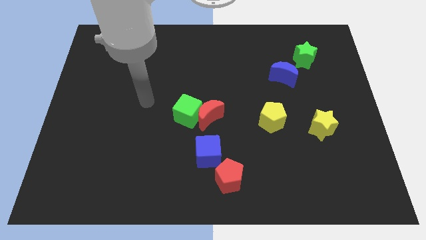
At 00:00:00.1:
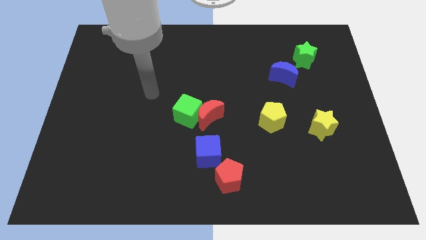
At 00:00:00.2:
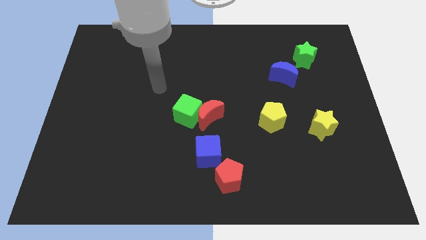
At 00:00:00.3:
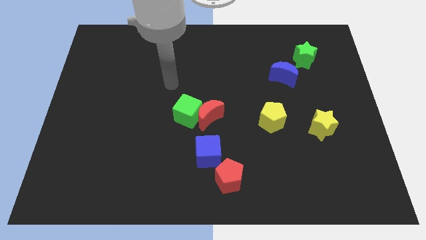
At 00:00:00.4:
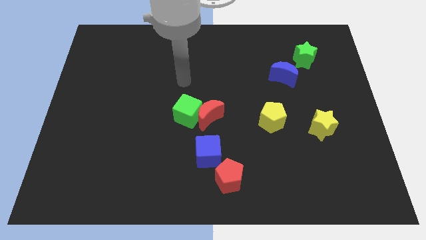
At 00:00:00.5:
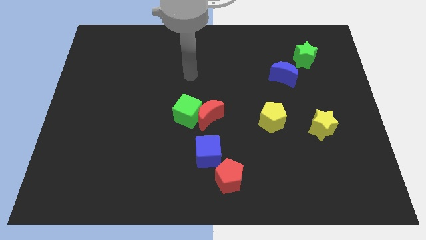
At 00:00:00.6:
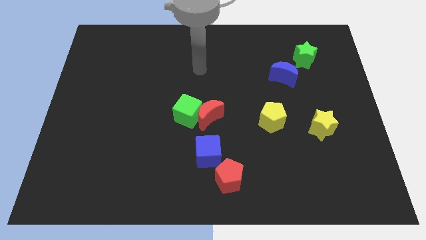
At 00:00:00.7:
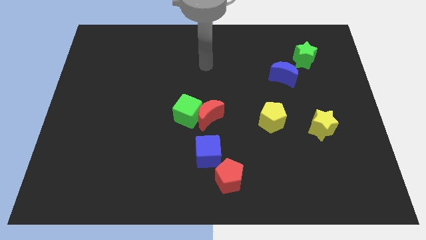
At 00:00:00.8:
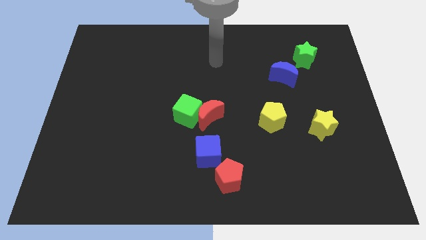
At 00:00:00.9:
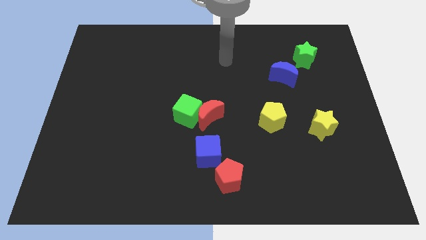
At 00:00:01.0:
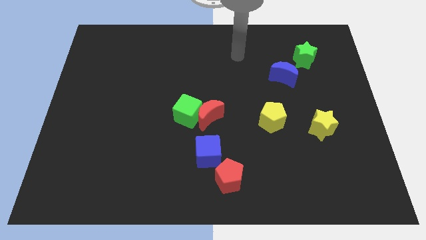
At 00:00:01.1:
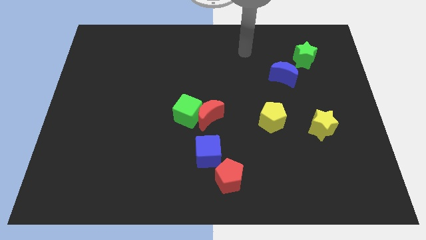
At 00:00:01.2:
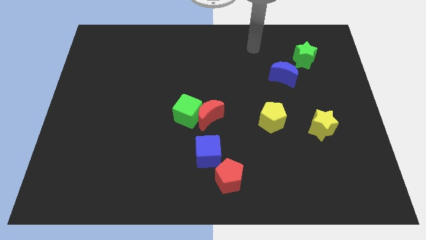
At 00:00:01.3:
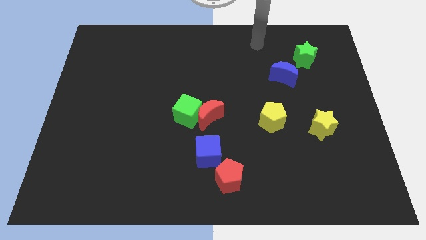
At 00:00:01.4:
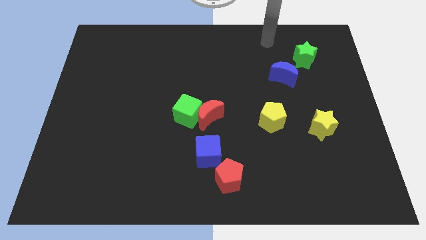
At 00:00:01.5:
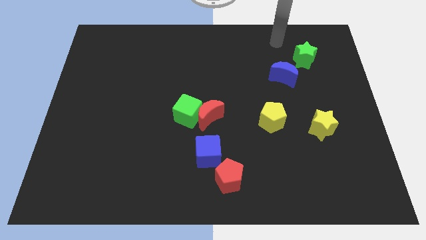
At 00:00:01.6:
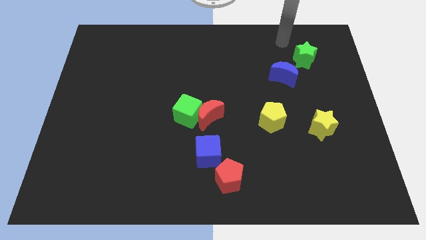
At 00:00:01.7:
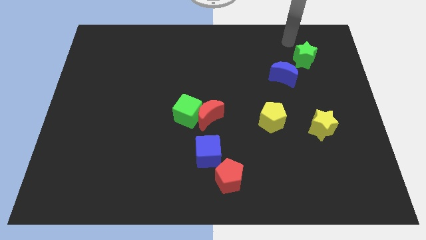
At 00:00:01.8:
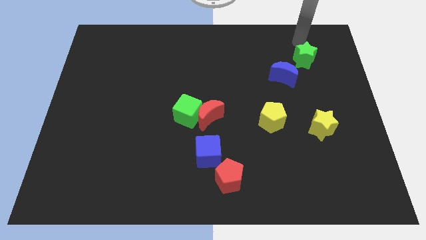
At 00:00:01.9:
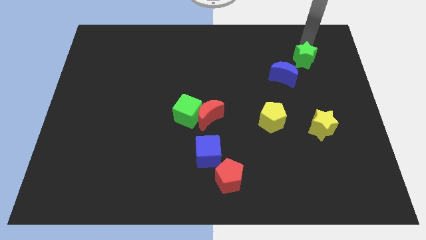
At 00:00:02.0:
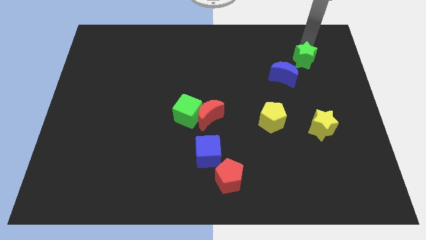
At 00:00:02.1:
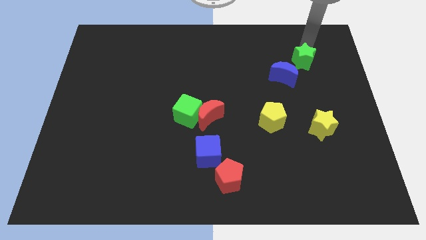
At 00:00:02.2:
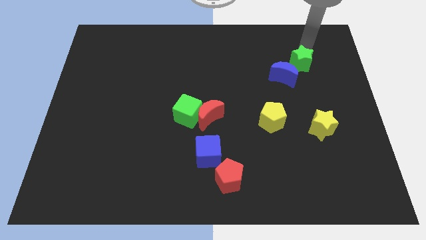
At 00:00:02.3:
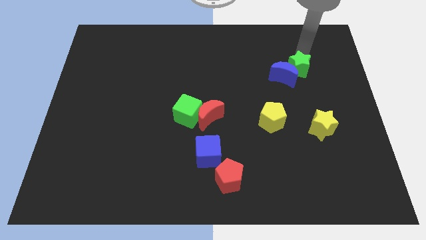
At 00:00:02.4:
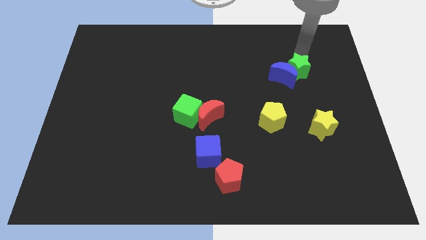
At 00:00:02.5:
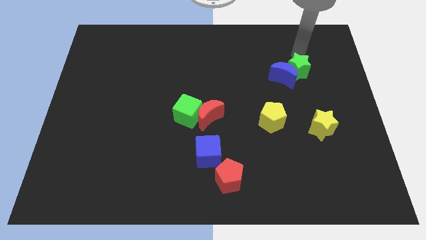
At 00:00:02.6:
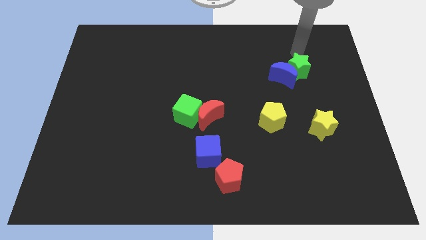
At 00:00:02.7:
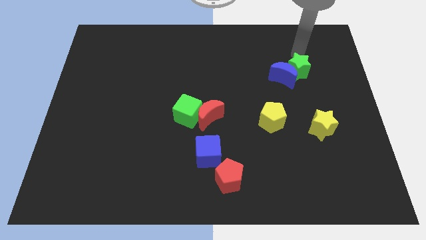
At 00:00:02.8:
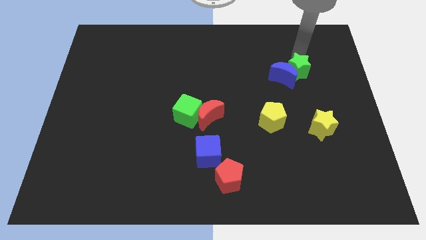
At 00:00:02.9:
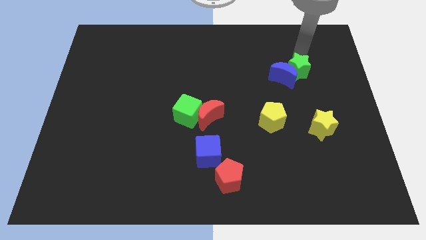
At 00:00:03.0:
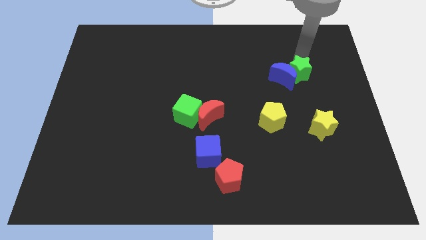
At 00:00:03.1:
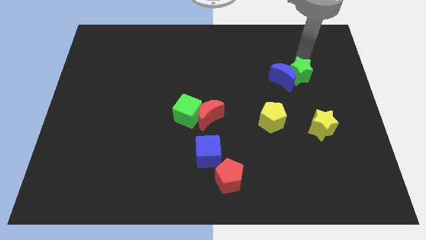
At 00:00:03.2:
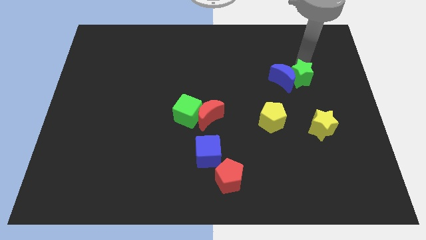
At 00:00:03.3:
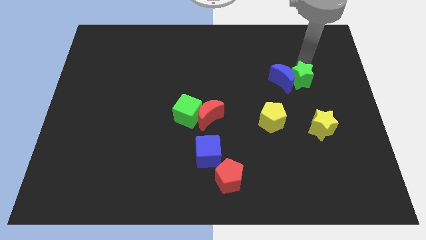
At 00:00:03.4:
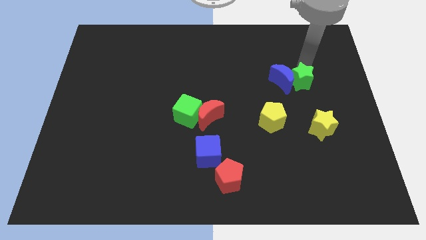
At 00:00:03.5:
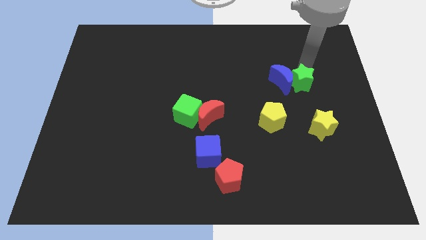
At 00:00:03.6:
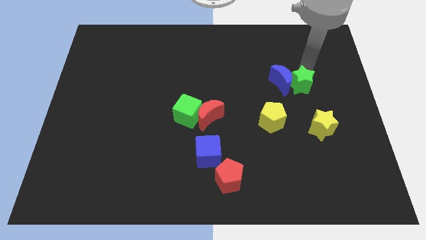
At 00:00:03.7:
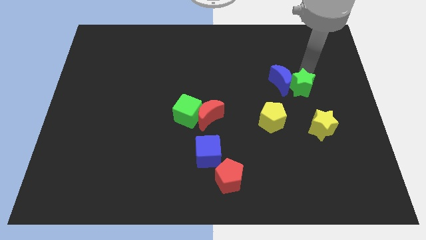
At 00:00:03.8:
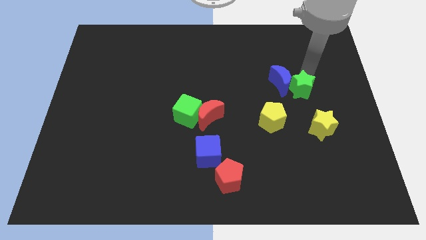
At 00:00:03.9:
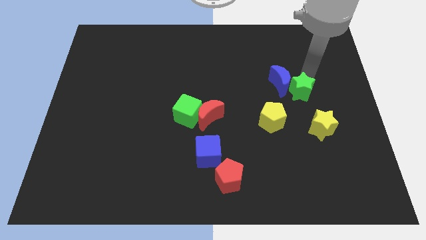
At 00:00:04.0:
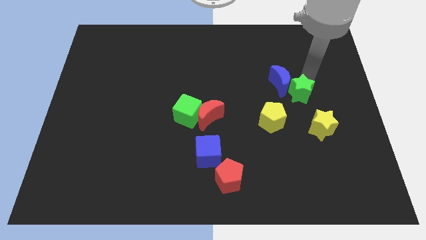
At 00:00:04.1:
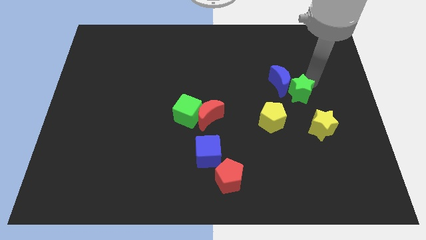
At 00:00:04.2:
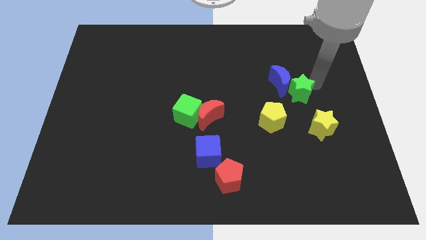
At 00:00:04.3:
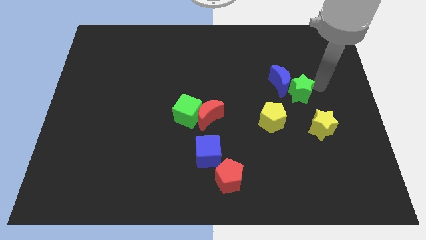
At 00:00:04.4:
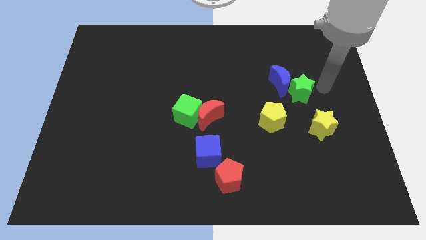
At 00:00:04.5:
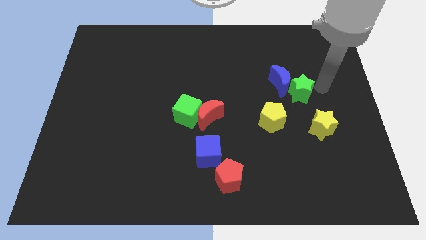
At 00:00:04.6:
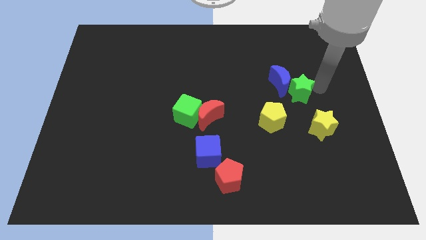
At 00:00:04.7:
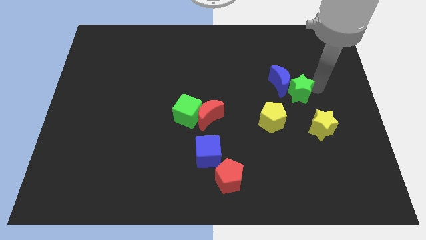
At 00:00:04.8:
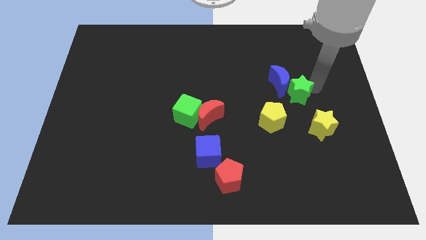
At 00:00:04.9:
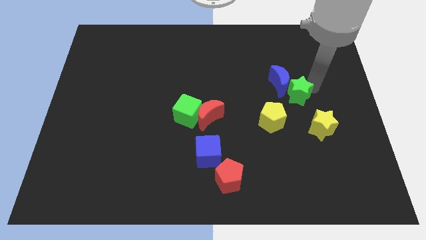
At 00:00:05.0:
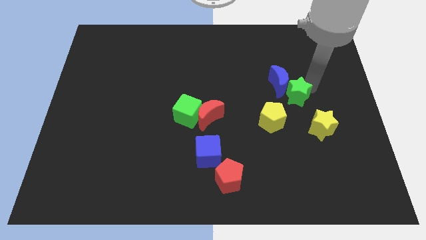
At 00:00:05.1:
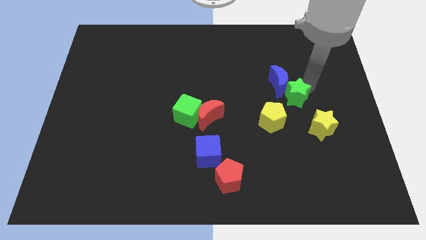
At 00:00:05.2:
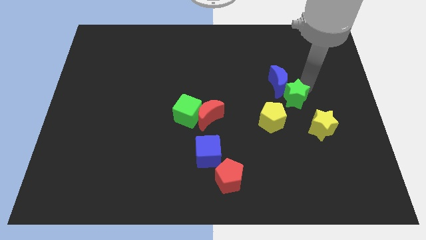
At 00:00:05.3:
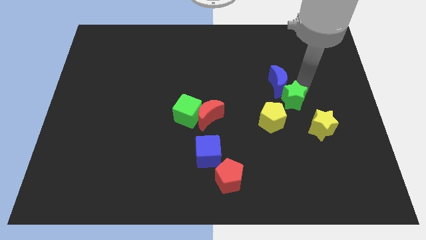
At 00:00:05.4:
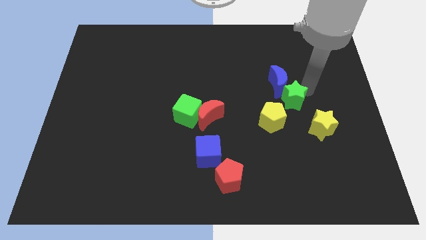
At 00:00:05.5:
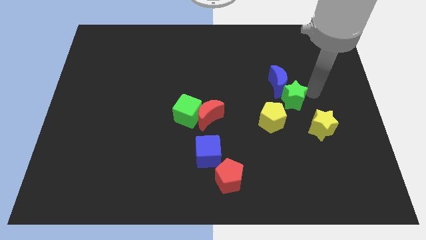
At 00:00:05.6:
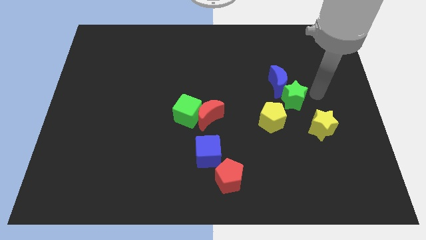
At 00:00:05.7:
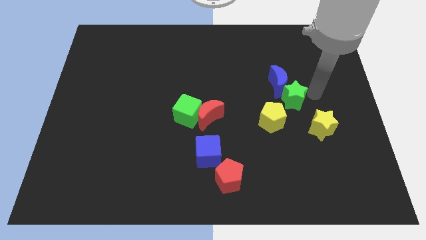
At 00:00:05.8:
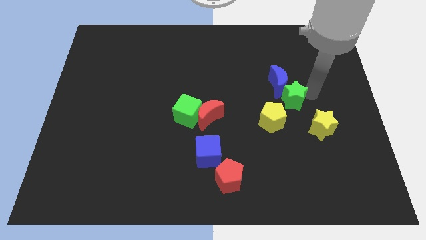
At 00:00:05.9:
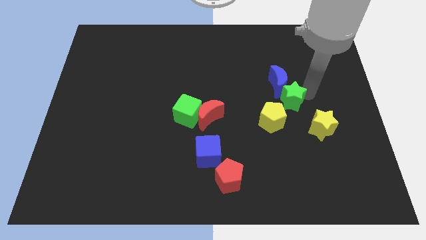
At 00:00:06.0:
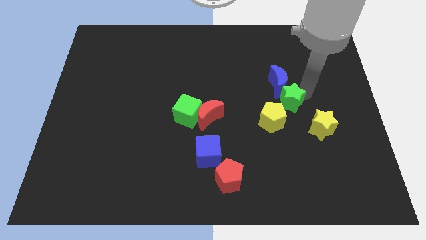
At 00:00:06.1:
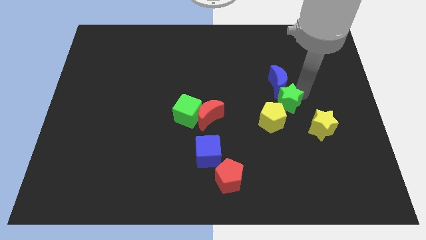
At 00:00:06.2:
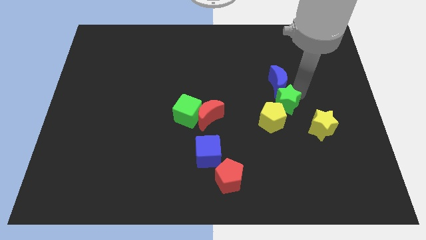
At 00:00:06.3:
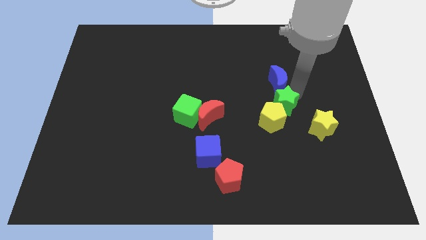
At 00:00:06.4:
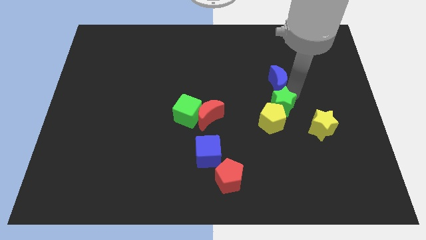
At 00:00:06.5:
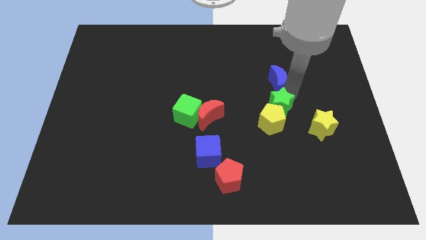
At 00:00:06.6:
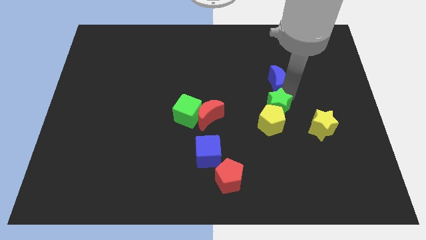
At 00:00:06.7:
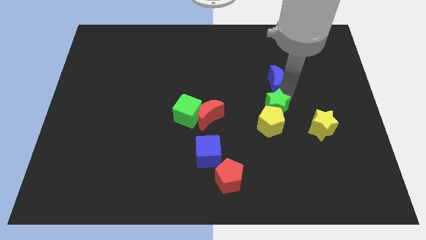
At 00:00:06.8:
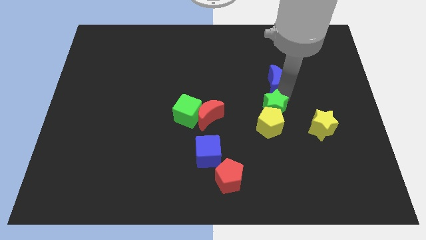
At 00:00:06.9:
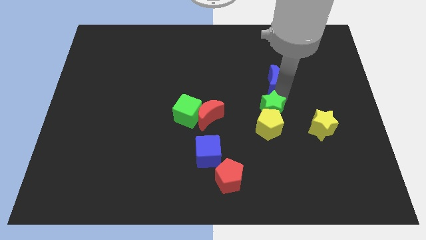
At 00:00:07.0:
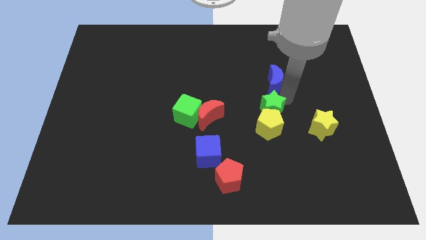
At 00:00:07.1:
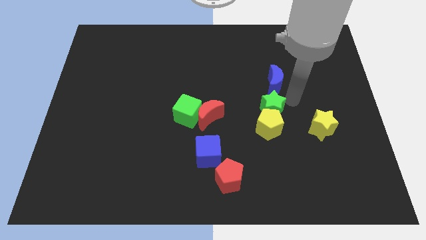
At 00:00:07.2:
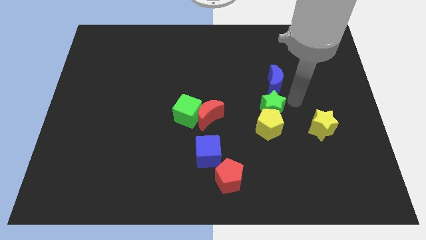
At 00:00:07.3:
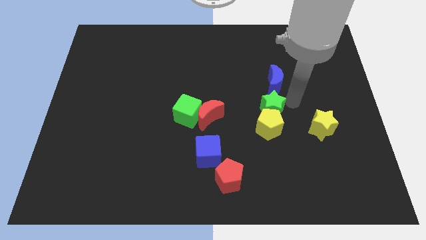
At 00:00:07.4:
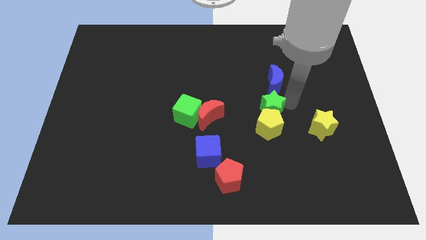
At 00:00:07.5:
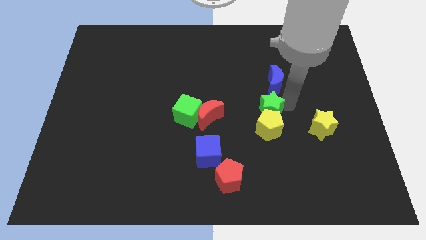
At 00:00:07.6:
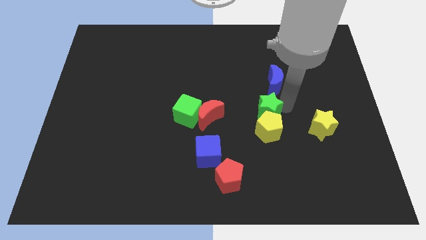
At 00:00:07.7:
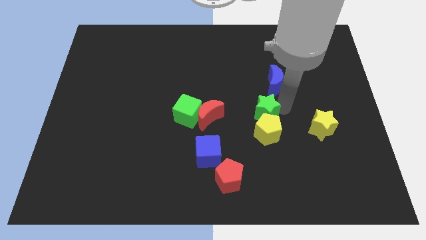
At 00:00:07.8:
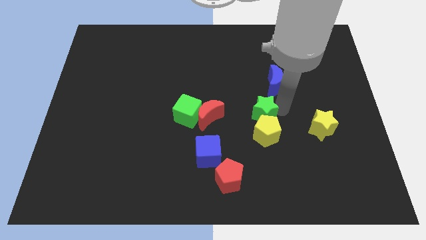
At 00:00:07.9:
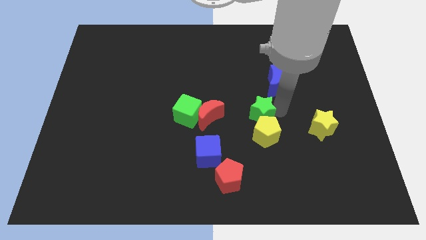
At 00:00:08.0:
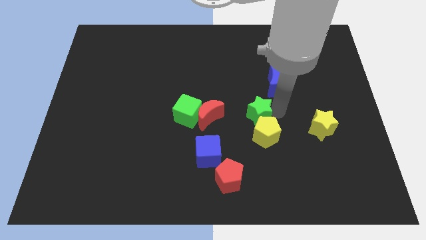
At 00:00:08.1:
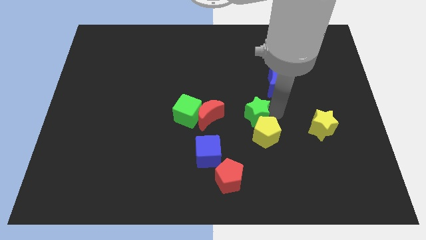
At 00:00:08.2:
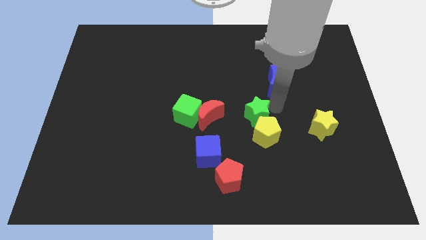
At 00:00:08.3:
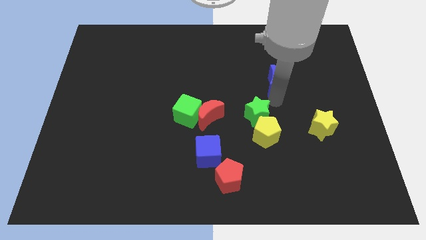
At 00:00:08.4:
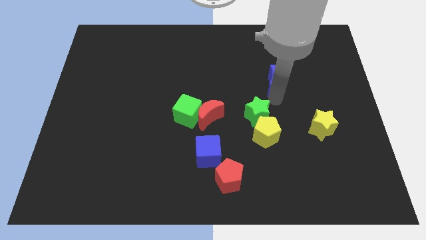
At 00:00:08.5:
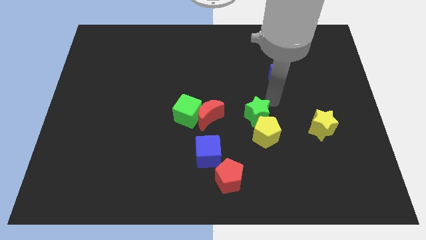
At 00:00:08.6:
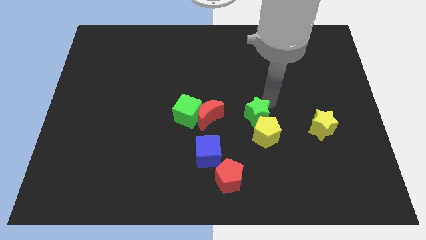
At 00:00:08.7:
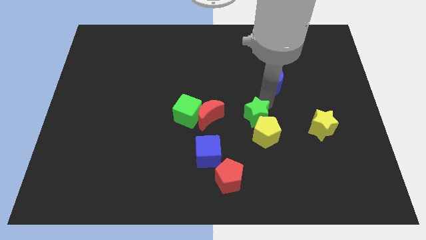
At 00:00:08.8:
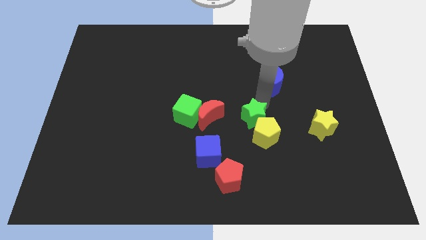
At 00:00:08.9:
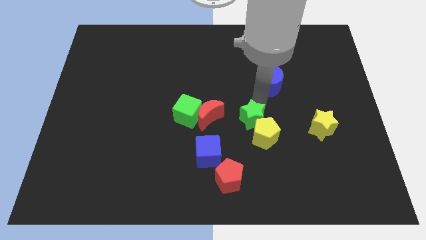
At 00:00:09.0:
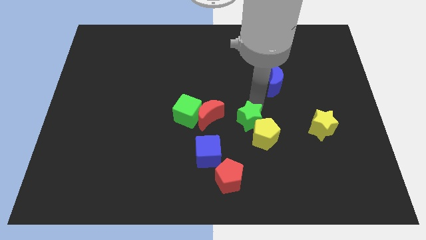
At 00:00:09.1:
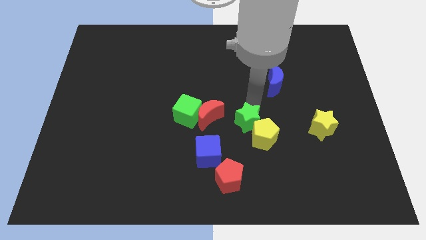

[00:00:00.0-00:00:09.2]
put the green star diagonally up and to the right of the blue cube
